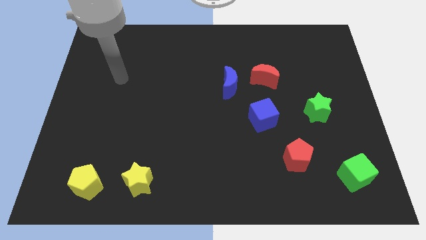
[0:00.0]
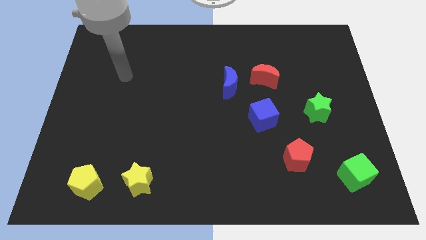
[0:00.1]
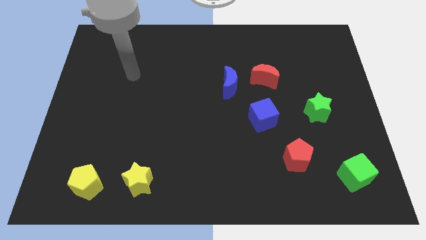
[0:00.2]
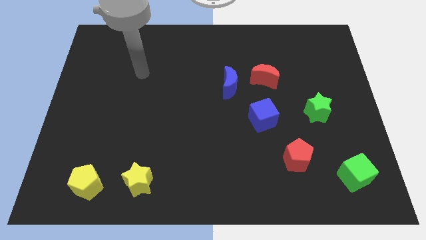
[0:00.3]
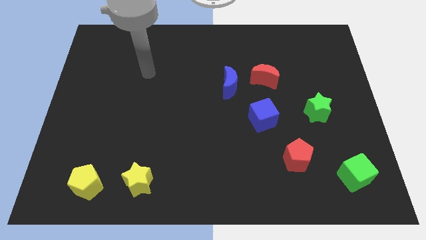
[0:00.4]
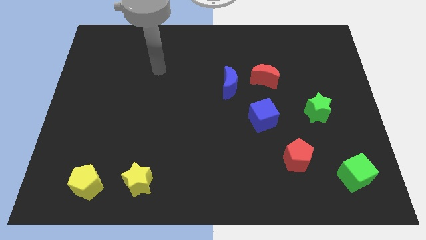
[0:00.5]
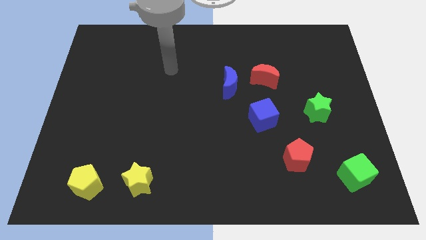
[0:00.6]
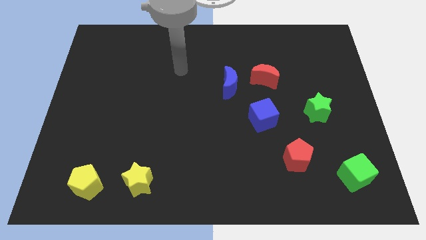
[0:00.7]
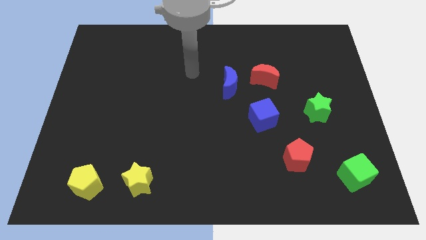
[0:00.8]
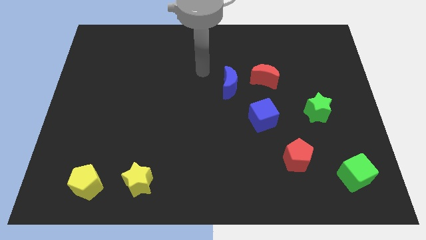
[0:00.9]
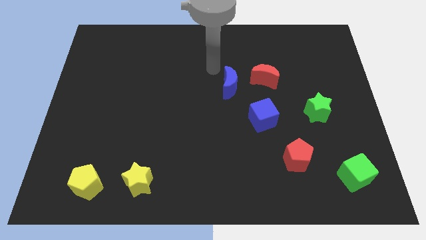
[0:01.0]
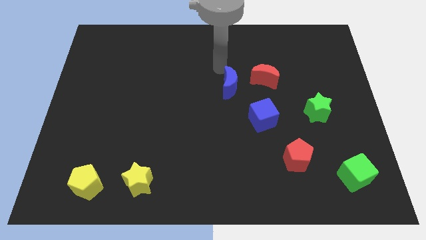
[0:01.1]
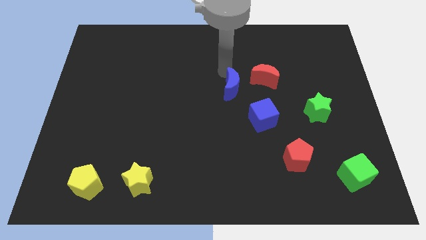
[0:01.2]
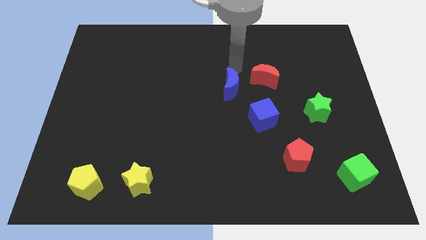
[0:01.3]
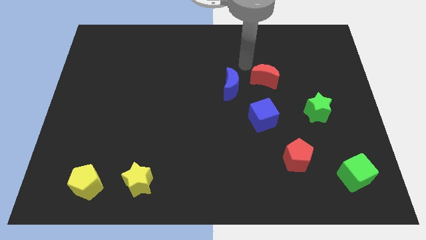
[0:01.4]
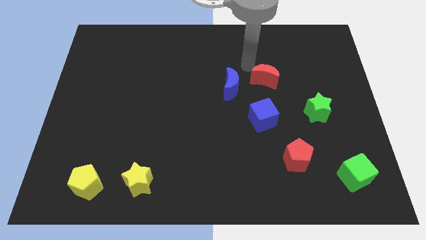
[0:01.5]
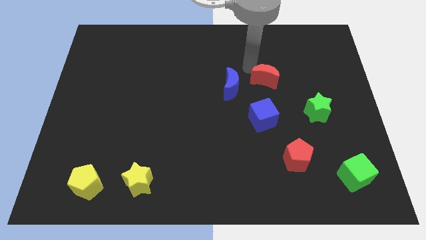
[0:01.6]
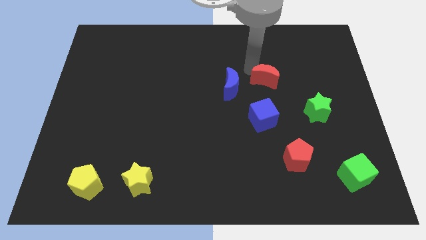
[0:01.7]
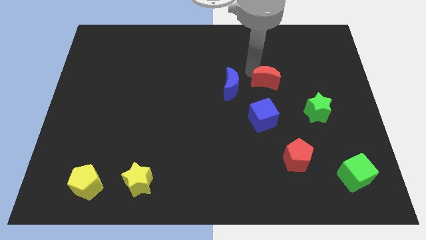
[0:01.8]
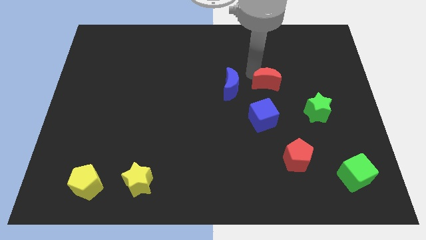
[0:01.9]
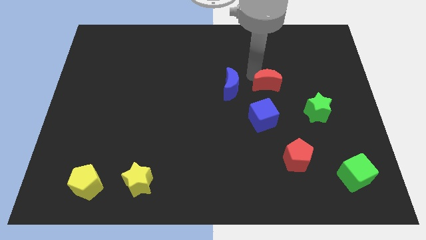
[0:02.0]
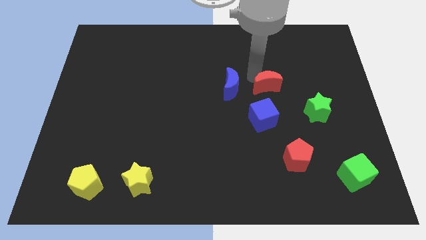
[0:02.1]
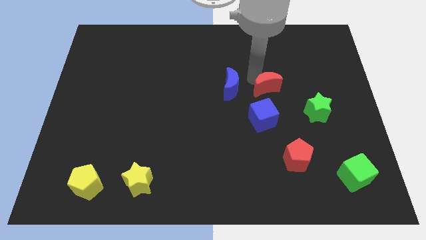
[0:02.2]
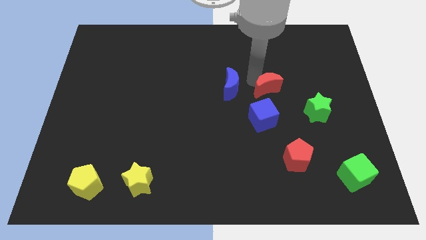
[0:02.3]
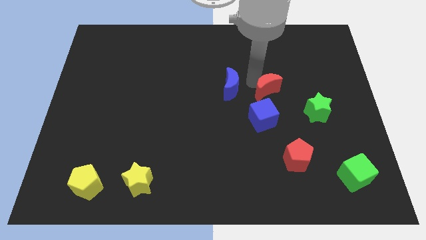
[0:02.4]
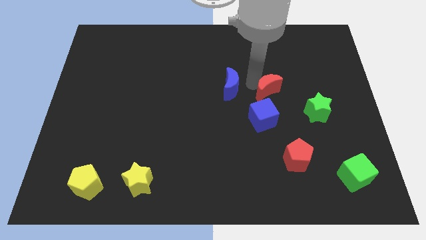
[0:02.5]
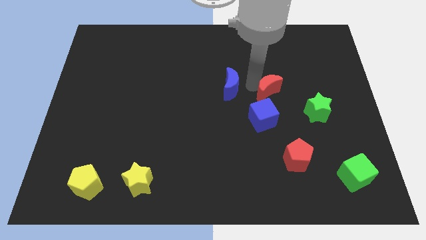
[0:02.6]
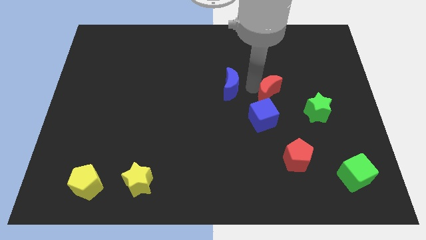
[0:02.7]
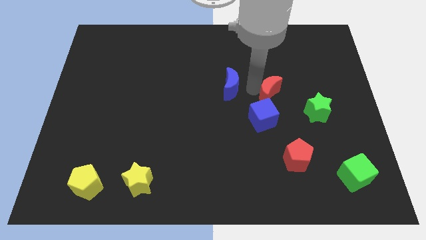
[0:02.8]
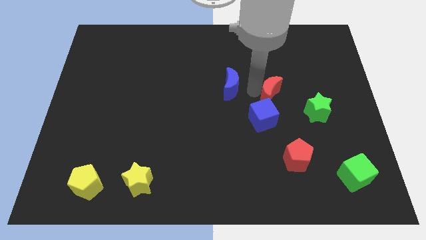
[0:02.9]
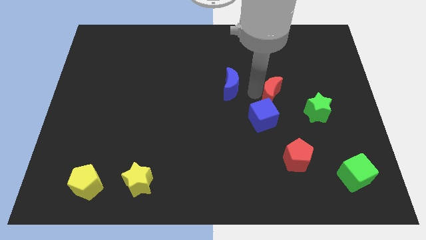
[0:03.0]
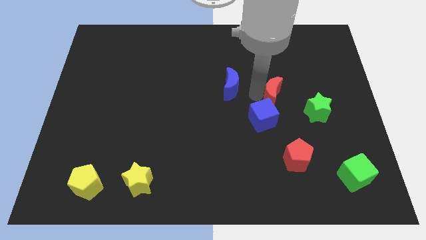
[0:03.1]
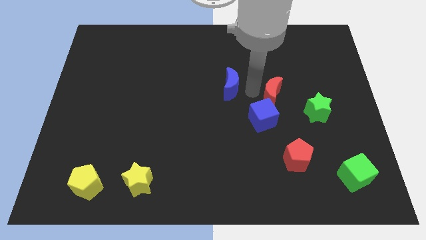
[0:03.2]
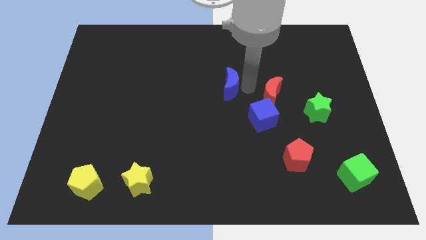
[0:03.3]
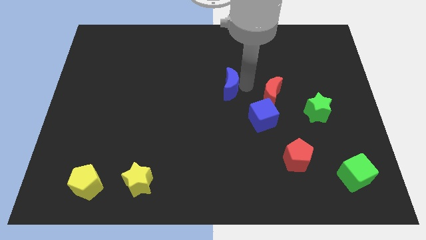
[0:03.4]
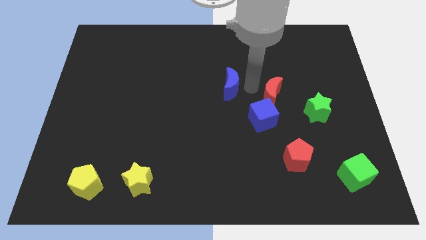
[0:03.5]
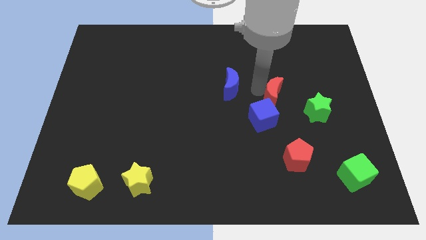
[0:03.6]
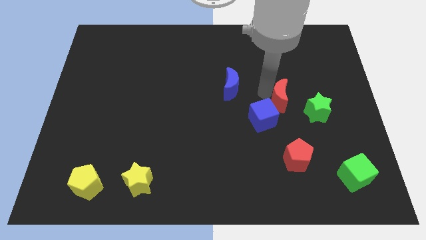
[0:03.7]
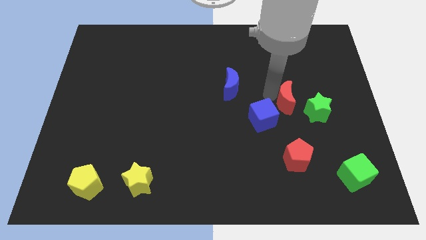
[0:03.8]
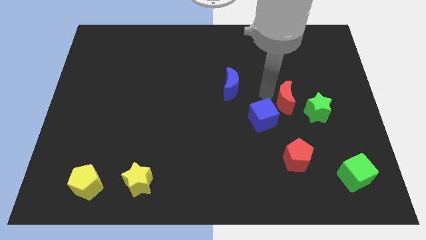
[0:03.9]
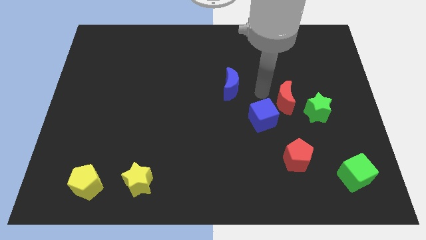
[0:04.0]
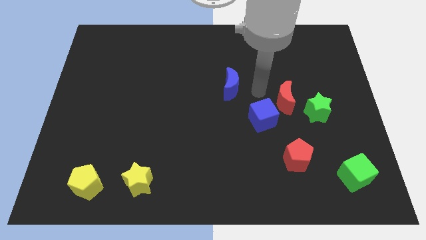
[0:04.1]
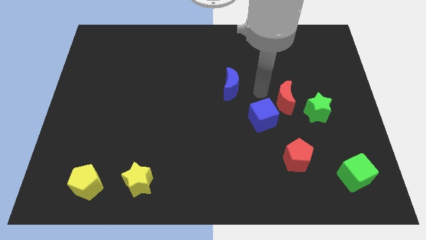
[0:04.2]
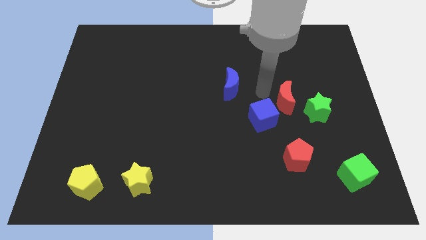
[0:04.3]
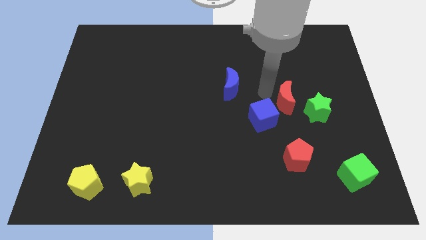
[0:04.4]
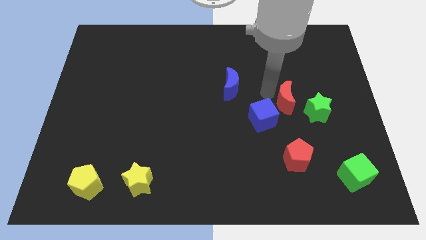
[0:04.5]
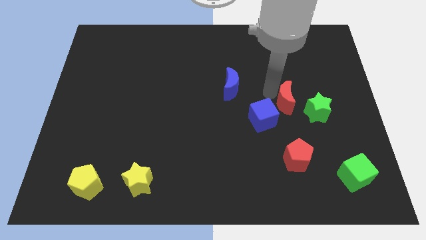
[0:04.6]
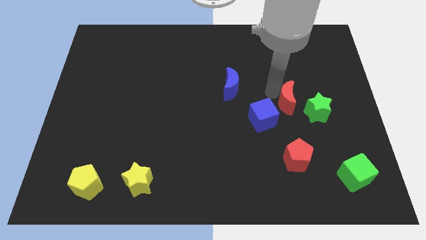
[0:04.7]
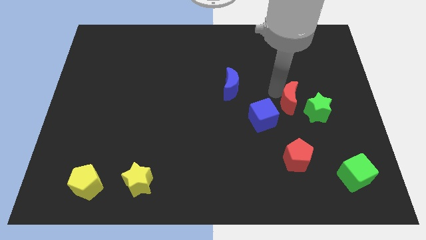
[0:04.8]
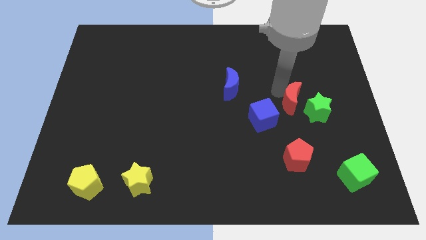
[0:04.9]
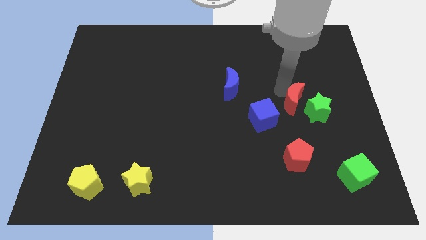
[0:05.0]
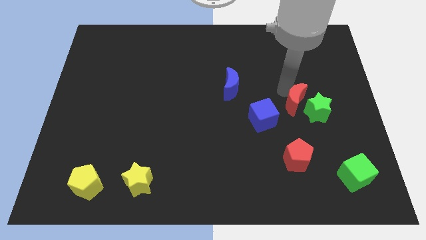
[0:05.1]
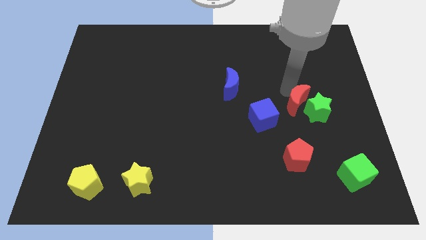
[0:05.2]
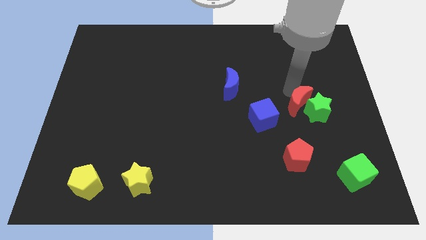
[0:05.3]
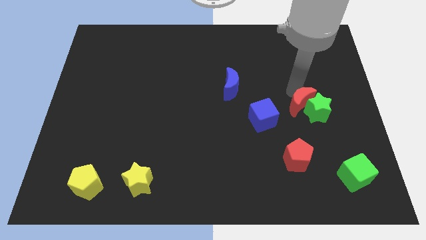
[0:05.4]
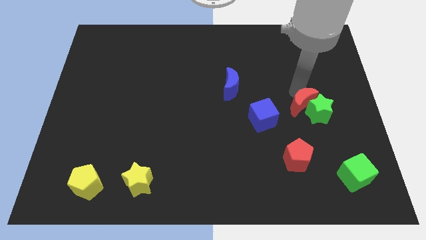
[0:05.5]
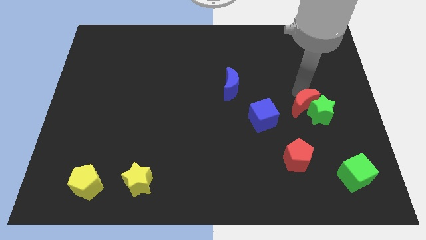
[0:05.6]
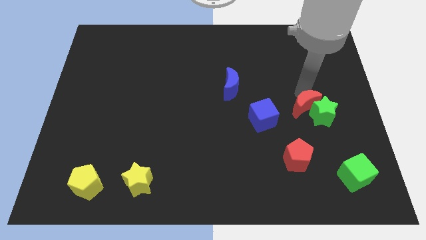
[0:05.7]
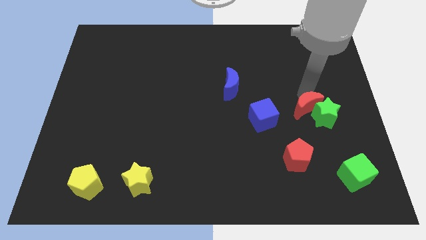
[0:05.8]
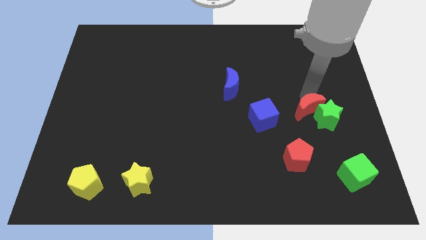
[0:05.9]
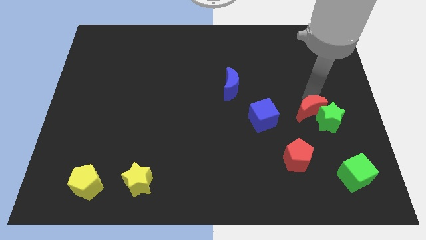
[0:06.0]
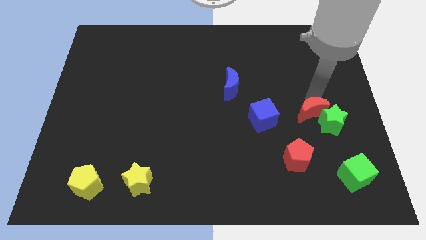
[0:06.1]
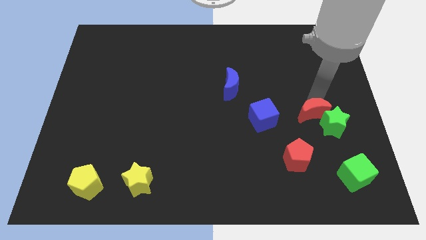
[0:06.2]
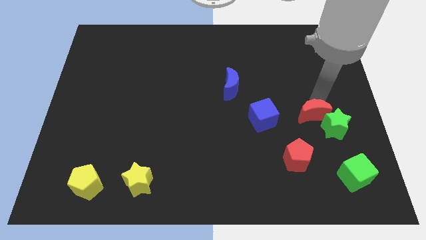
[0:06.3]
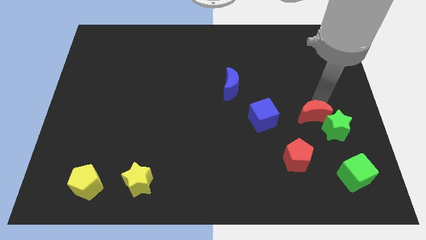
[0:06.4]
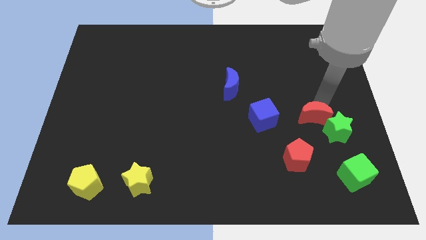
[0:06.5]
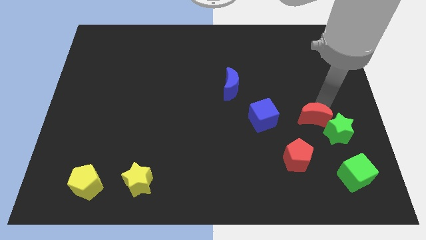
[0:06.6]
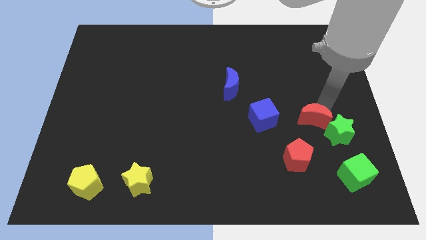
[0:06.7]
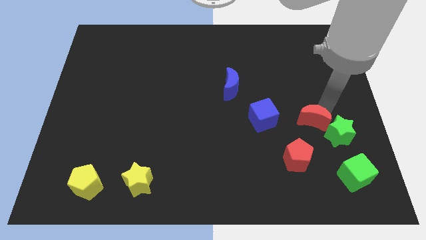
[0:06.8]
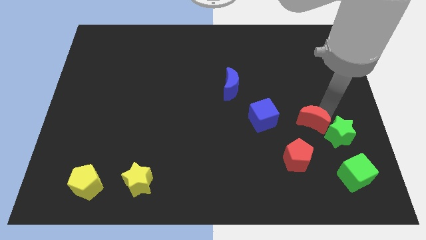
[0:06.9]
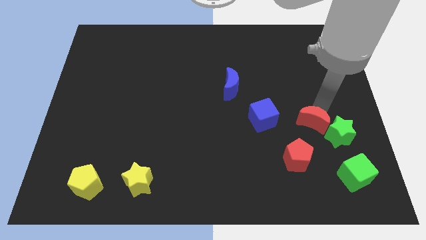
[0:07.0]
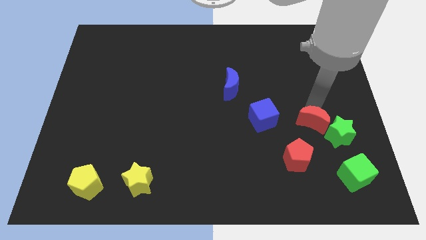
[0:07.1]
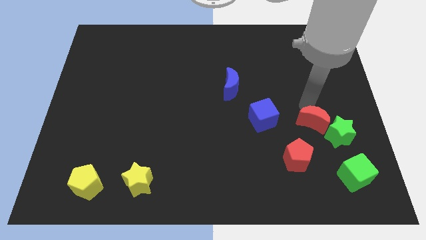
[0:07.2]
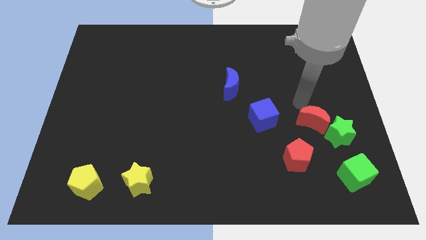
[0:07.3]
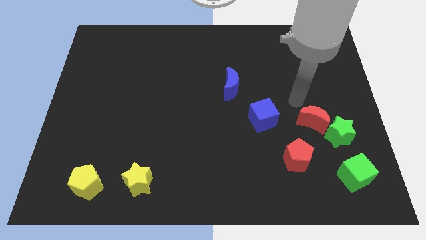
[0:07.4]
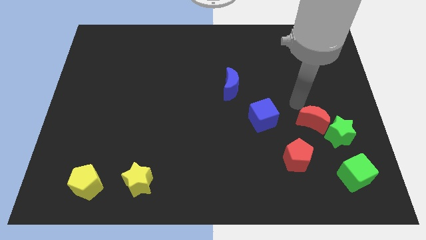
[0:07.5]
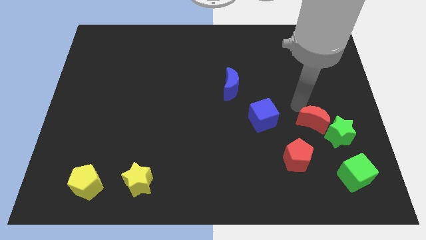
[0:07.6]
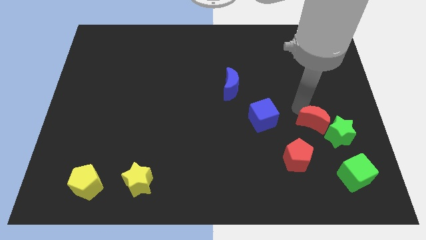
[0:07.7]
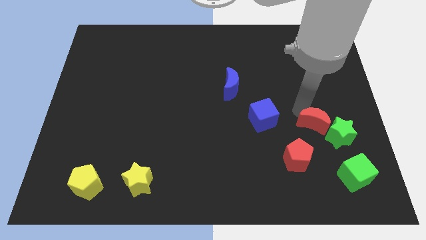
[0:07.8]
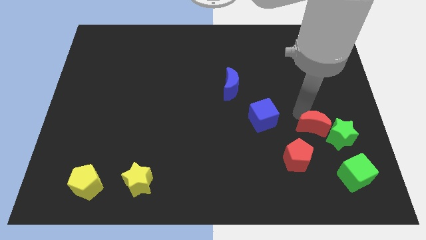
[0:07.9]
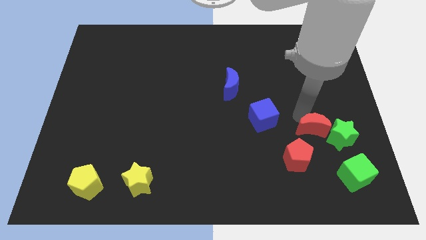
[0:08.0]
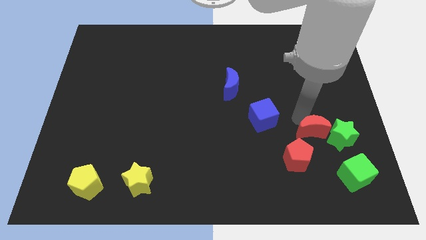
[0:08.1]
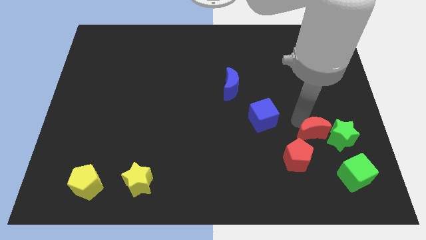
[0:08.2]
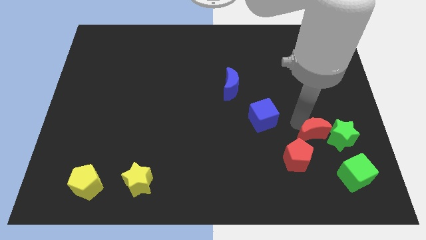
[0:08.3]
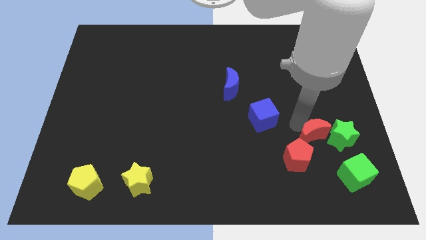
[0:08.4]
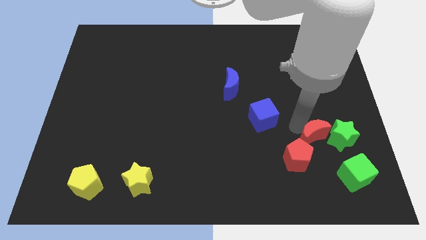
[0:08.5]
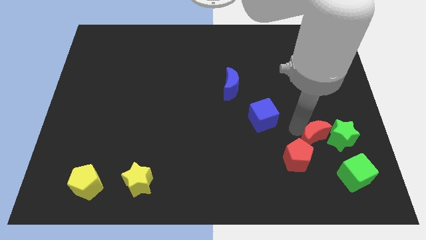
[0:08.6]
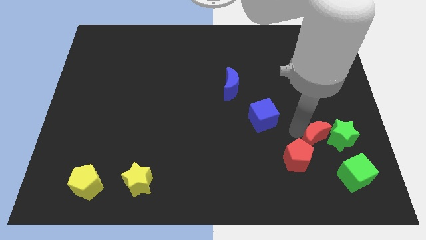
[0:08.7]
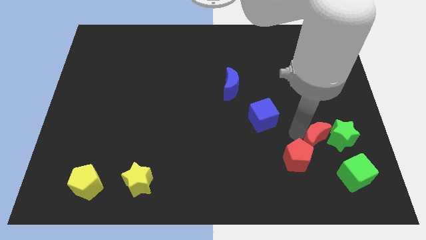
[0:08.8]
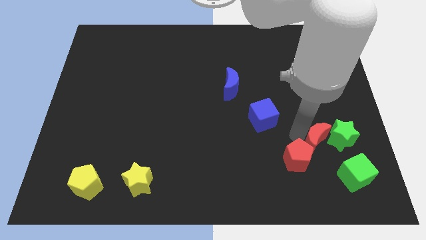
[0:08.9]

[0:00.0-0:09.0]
put the red moon to the right side of the red pentagon
